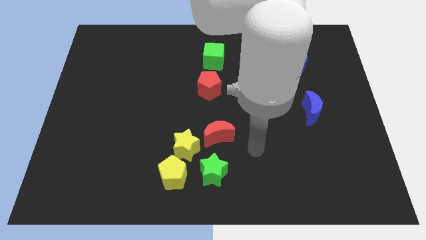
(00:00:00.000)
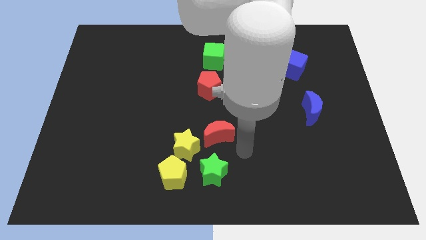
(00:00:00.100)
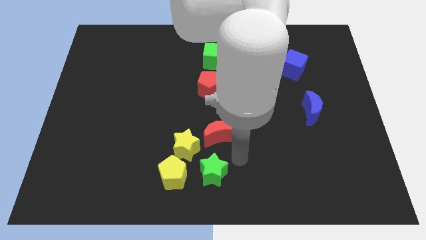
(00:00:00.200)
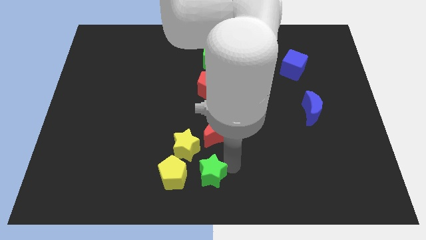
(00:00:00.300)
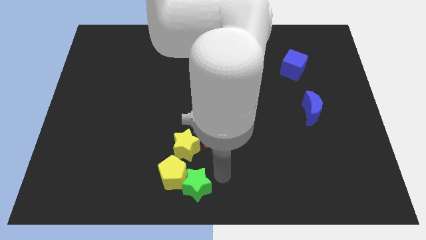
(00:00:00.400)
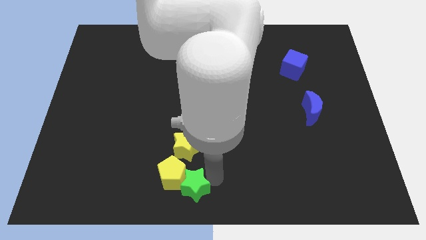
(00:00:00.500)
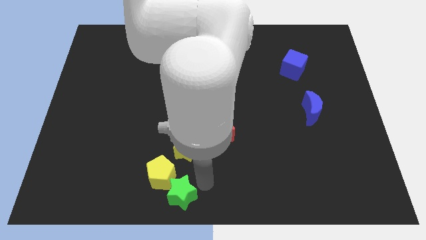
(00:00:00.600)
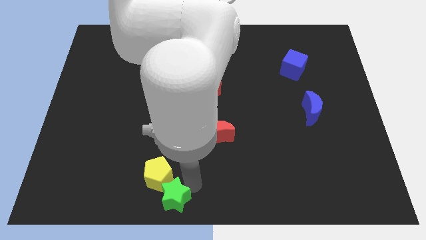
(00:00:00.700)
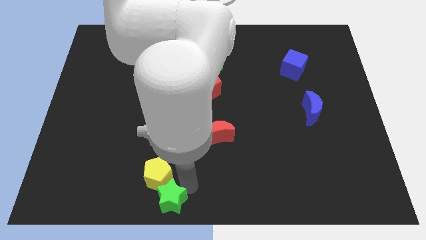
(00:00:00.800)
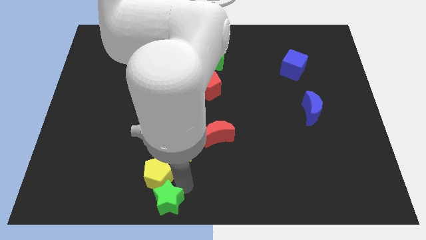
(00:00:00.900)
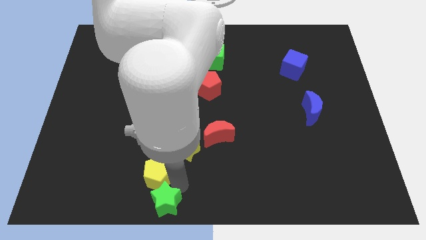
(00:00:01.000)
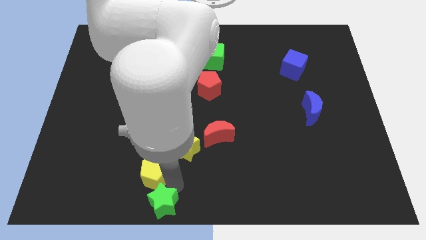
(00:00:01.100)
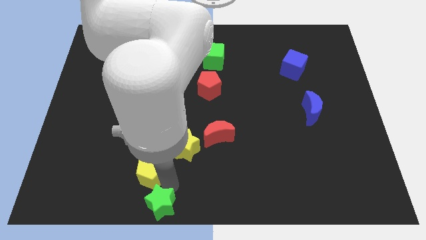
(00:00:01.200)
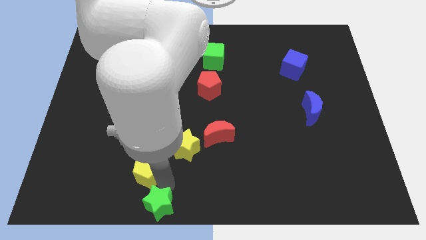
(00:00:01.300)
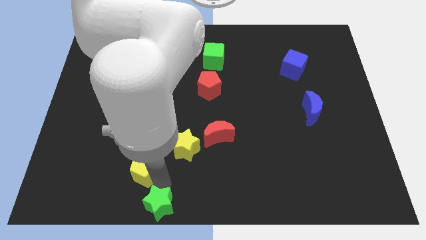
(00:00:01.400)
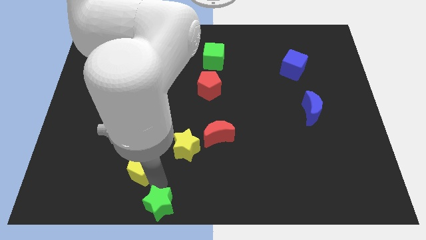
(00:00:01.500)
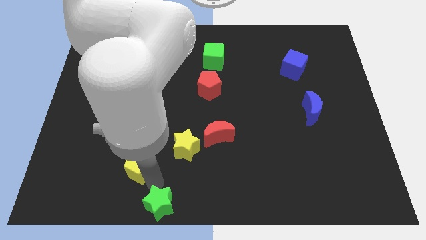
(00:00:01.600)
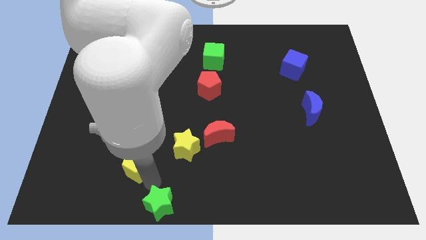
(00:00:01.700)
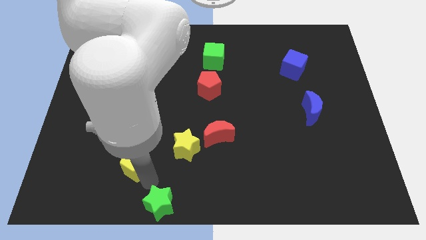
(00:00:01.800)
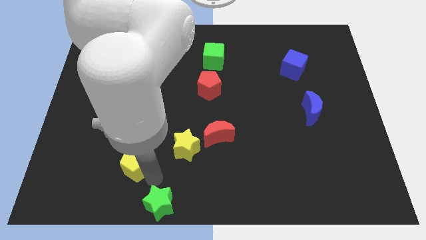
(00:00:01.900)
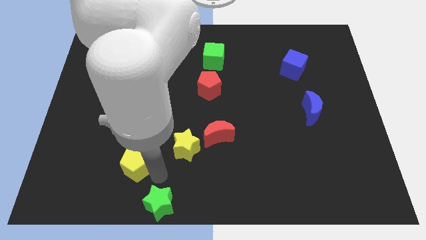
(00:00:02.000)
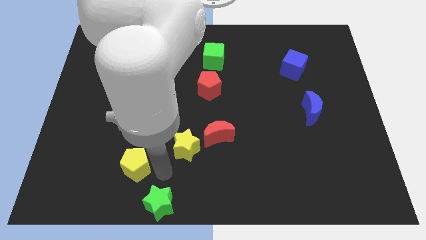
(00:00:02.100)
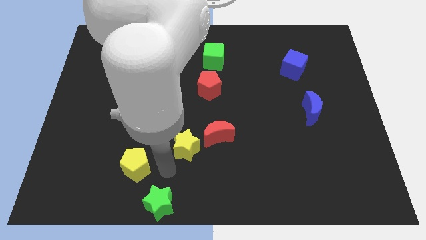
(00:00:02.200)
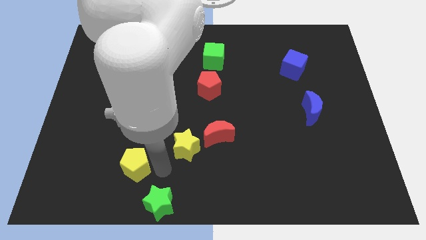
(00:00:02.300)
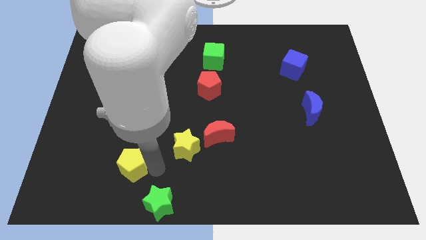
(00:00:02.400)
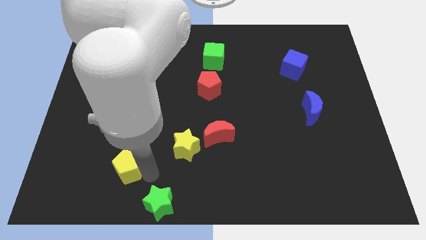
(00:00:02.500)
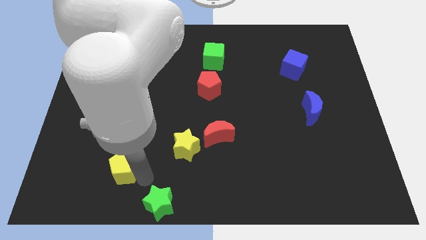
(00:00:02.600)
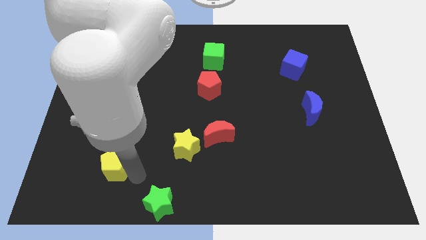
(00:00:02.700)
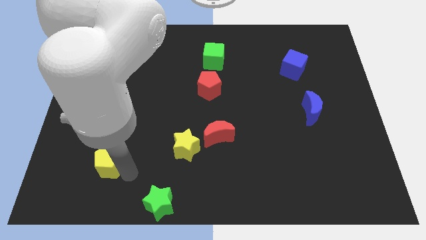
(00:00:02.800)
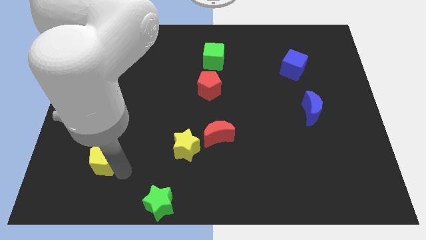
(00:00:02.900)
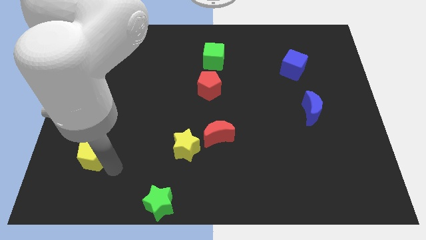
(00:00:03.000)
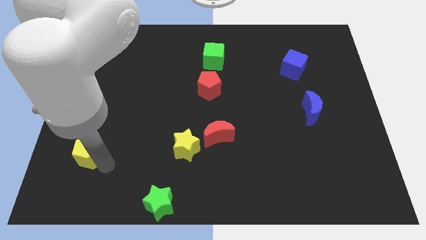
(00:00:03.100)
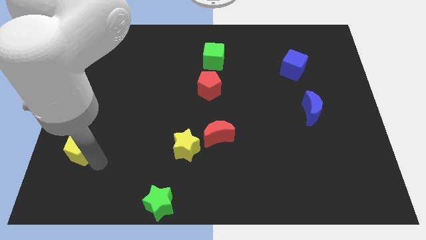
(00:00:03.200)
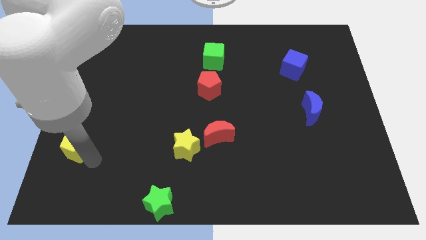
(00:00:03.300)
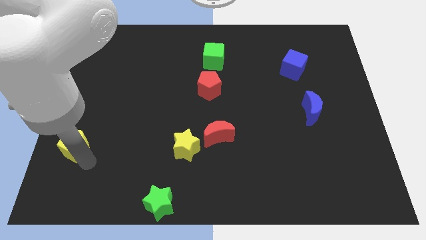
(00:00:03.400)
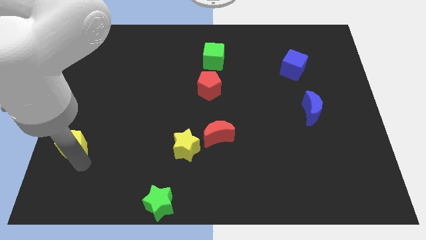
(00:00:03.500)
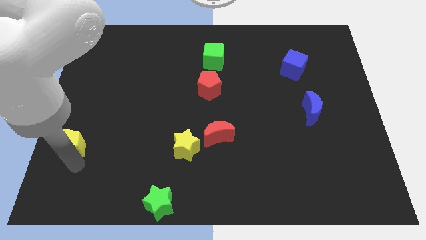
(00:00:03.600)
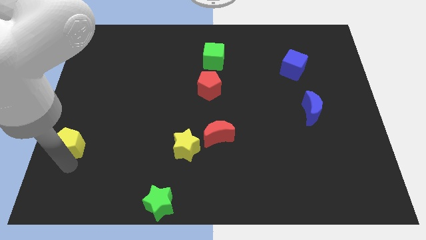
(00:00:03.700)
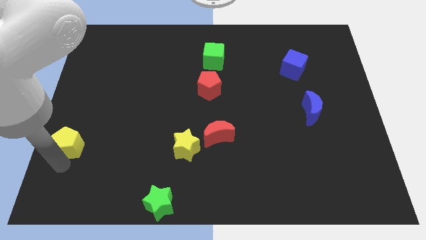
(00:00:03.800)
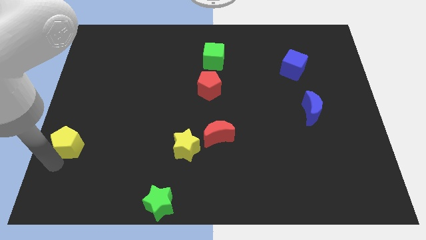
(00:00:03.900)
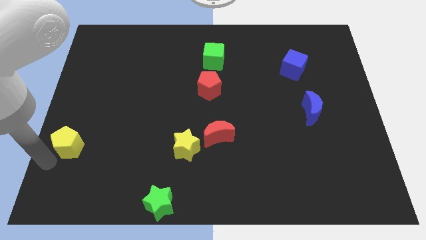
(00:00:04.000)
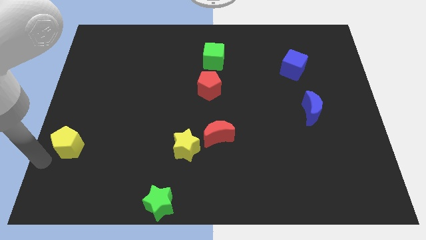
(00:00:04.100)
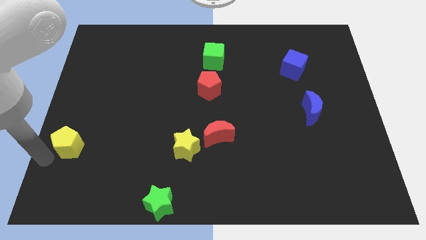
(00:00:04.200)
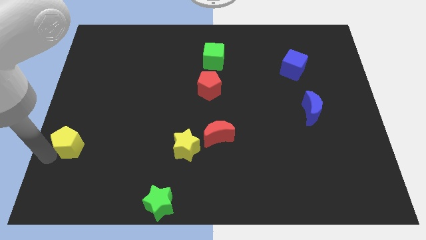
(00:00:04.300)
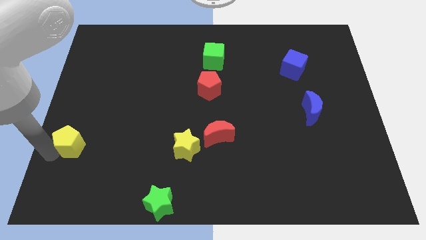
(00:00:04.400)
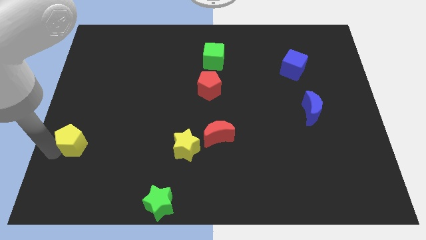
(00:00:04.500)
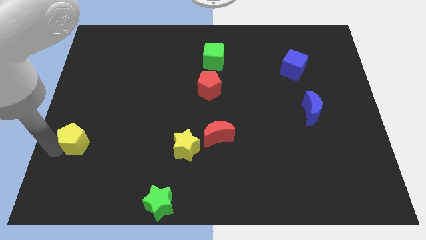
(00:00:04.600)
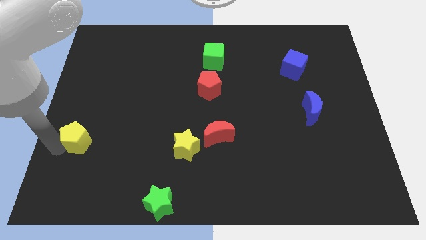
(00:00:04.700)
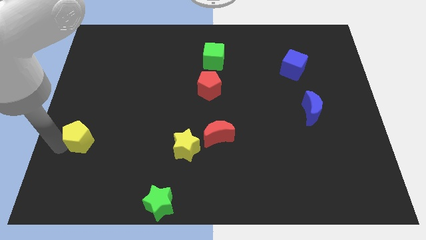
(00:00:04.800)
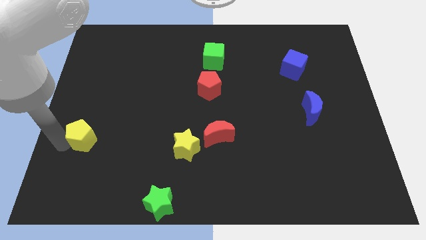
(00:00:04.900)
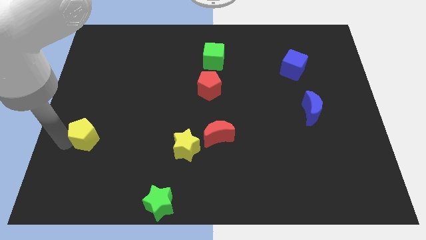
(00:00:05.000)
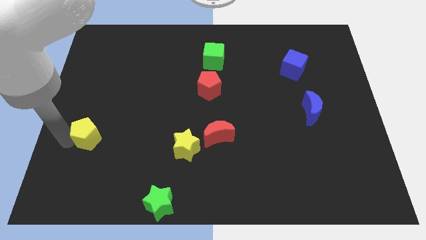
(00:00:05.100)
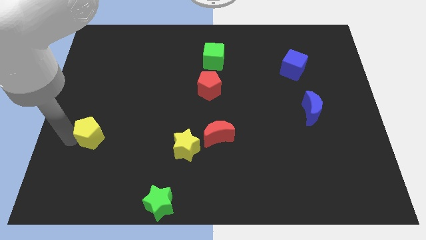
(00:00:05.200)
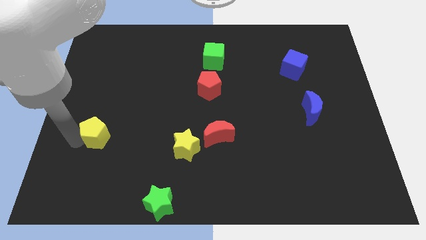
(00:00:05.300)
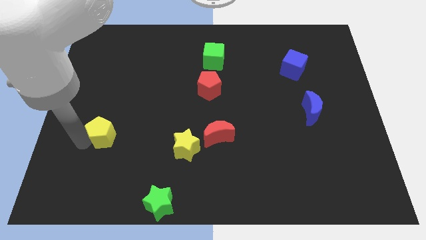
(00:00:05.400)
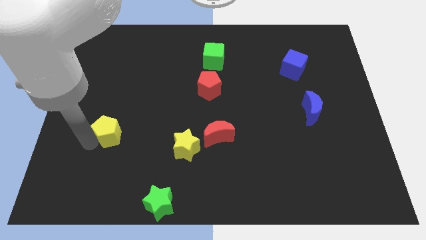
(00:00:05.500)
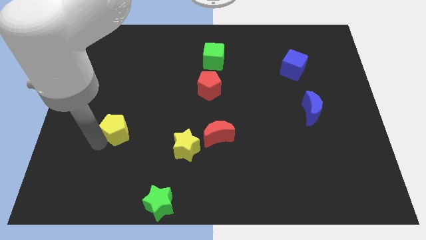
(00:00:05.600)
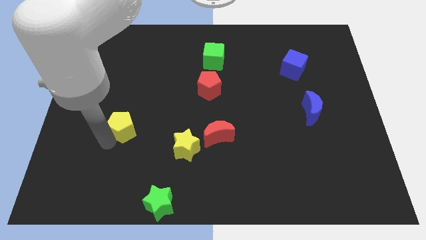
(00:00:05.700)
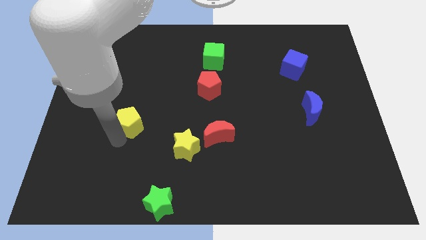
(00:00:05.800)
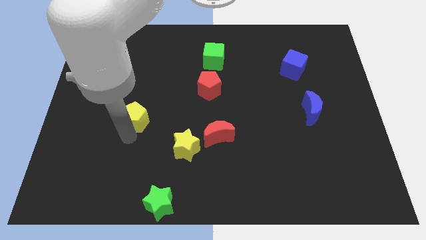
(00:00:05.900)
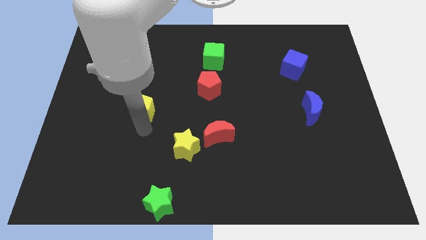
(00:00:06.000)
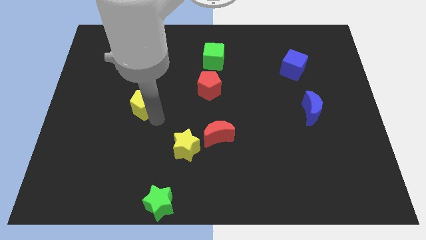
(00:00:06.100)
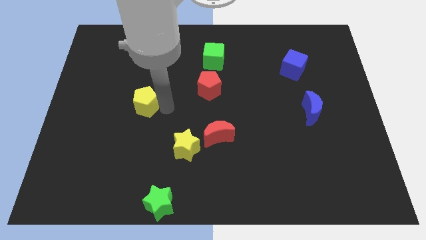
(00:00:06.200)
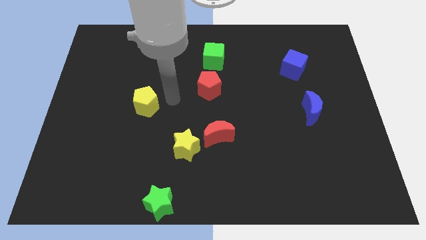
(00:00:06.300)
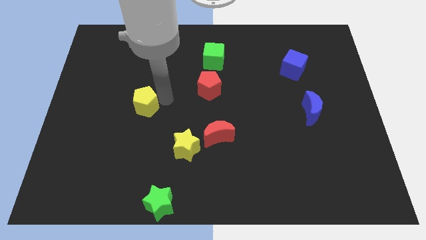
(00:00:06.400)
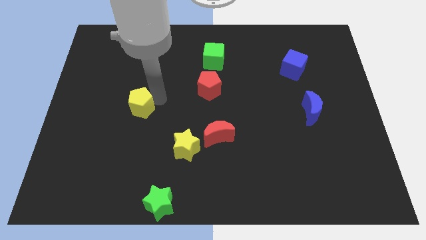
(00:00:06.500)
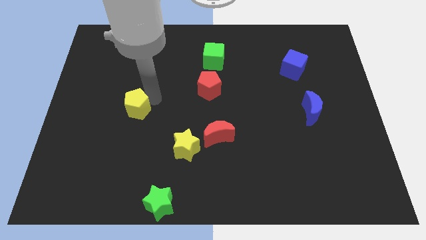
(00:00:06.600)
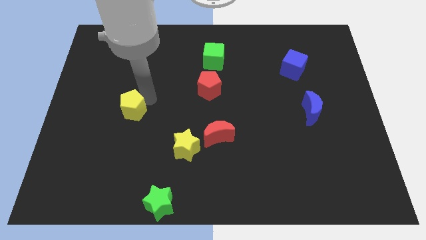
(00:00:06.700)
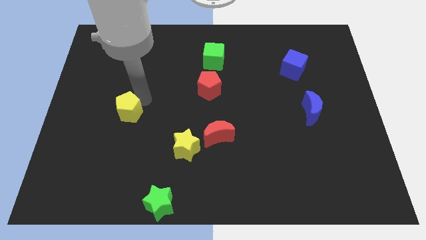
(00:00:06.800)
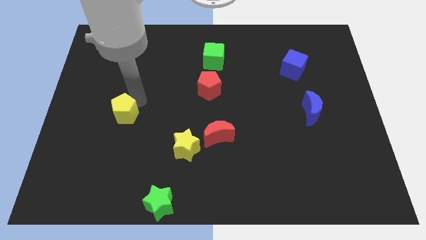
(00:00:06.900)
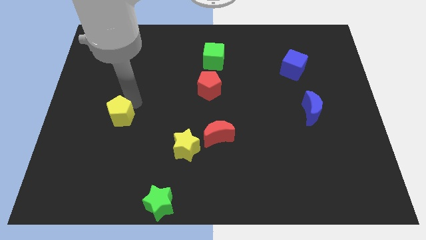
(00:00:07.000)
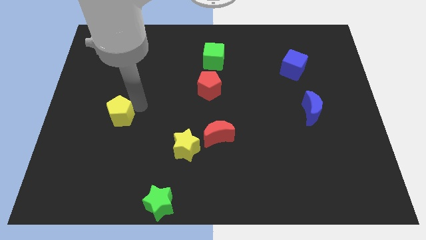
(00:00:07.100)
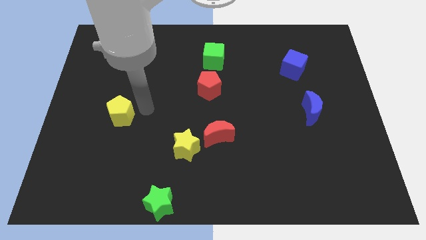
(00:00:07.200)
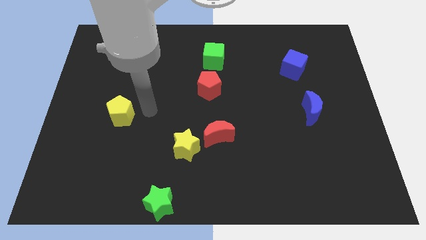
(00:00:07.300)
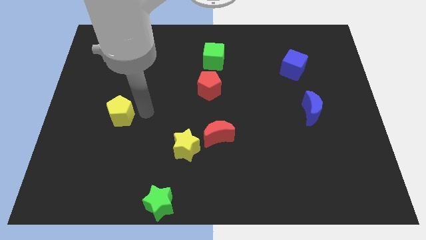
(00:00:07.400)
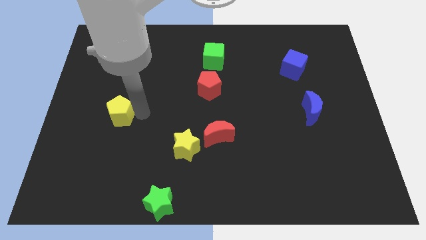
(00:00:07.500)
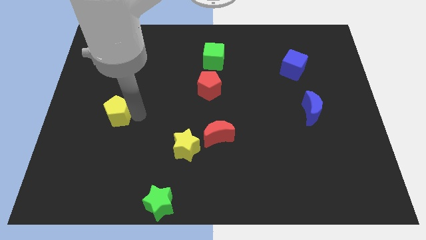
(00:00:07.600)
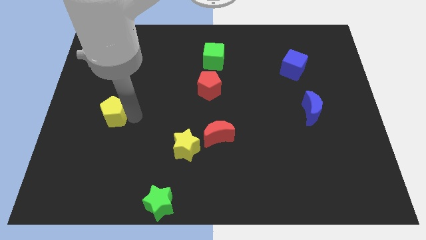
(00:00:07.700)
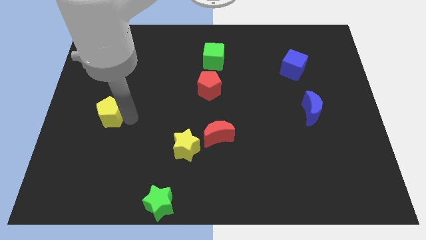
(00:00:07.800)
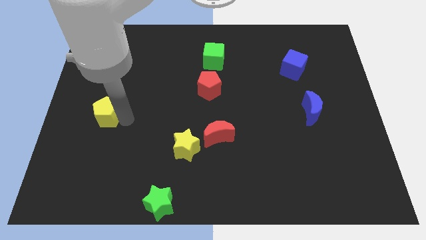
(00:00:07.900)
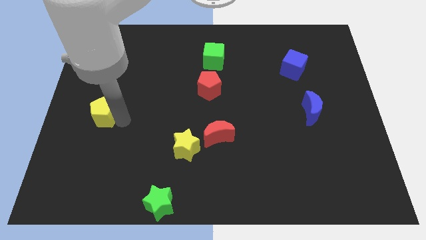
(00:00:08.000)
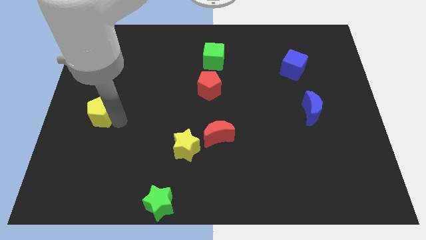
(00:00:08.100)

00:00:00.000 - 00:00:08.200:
push the yellow pentagon to the left side
